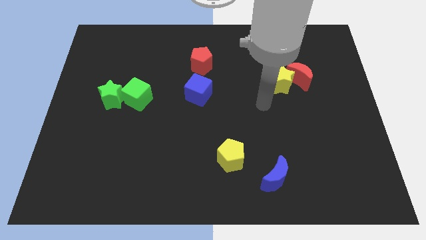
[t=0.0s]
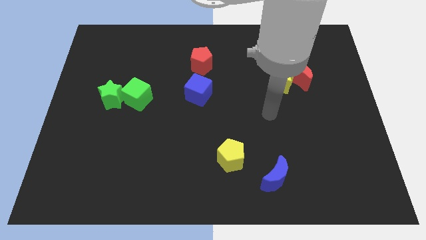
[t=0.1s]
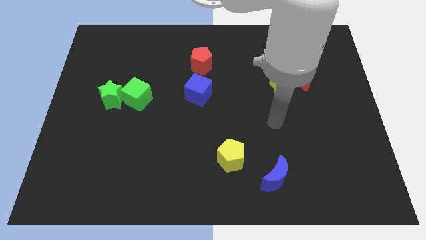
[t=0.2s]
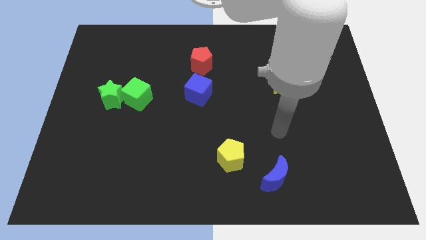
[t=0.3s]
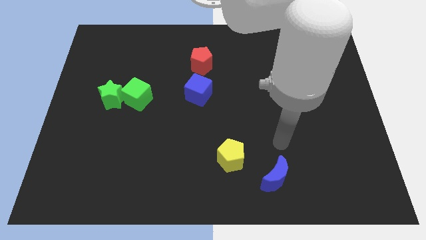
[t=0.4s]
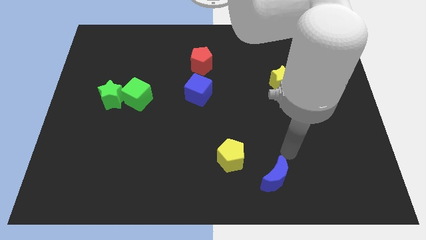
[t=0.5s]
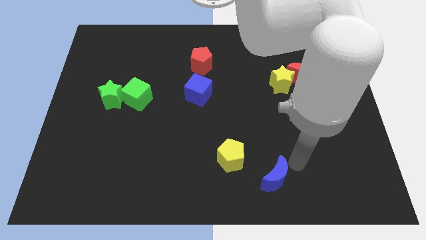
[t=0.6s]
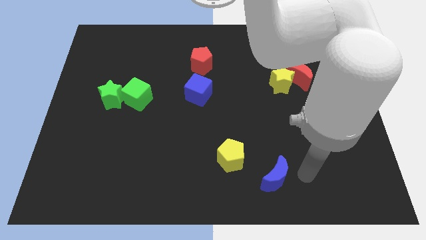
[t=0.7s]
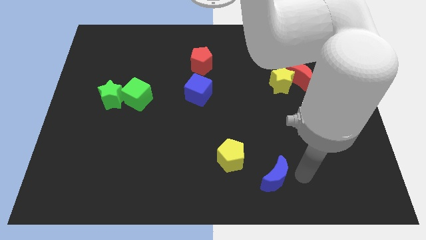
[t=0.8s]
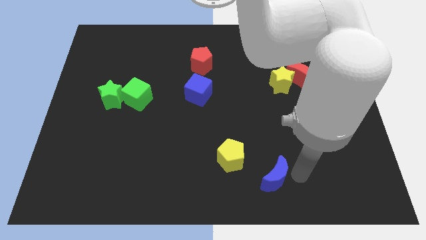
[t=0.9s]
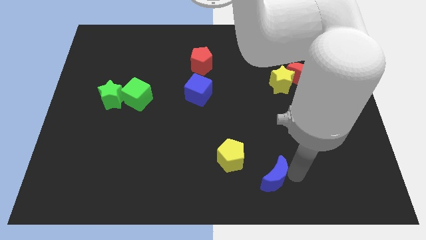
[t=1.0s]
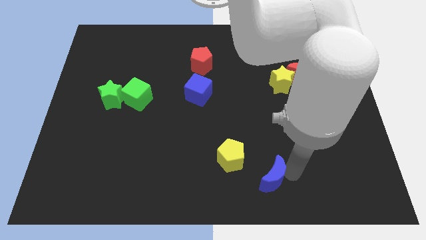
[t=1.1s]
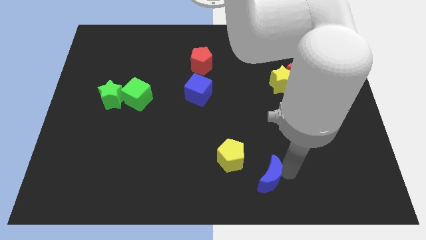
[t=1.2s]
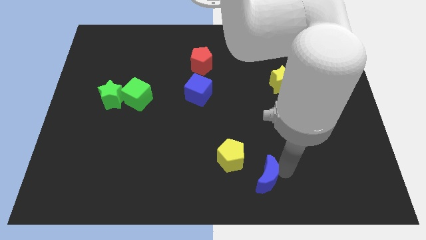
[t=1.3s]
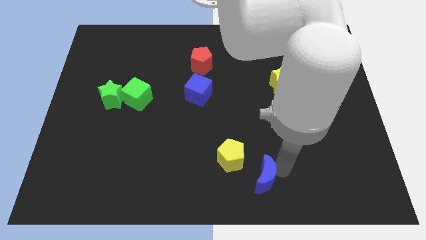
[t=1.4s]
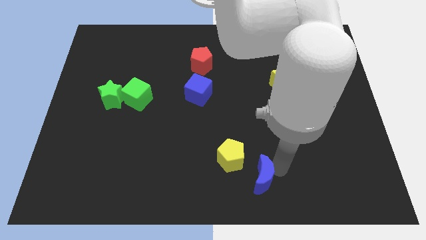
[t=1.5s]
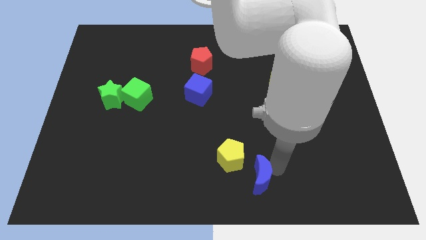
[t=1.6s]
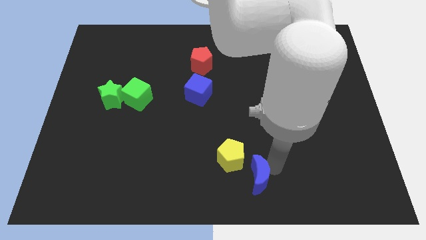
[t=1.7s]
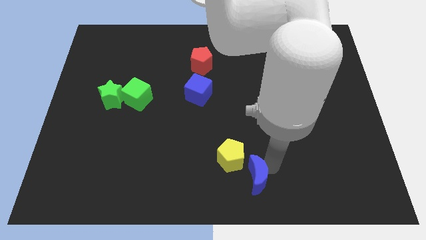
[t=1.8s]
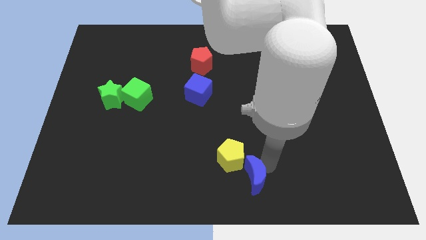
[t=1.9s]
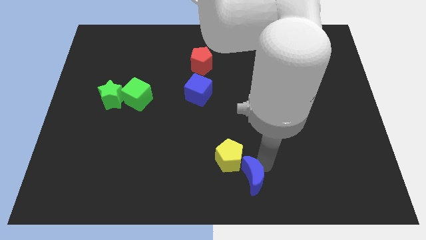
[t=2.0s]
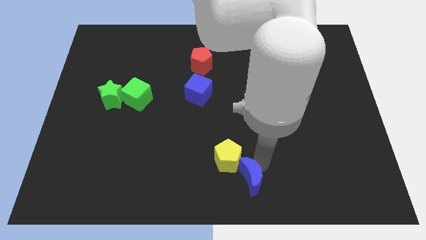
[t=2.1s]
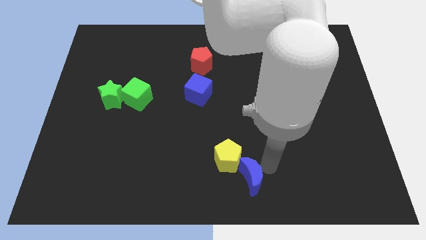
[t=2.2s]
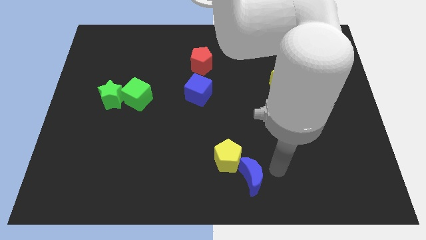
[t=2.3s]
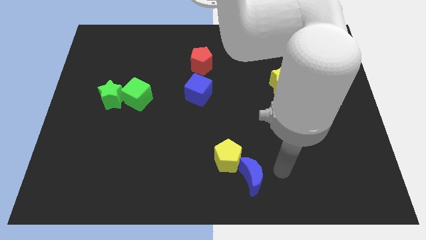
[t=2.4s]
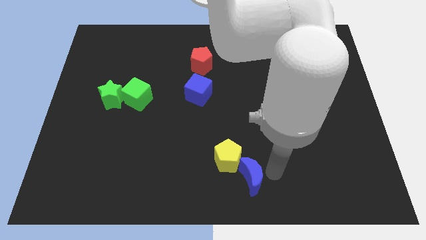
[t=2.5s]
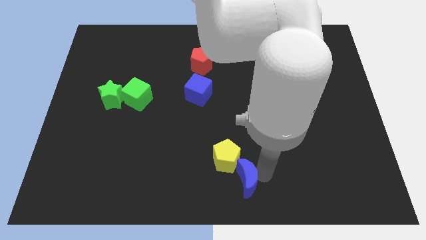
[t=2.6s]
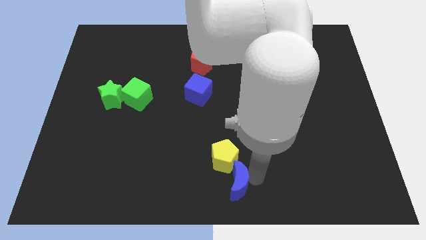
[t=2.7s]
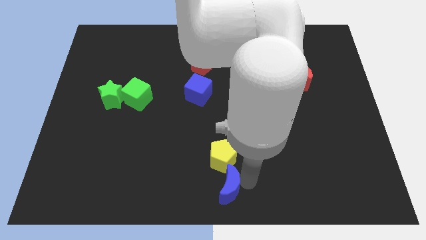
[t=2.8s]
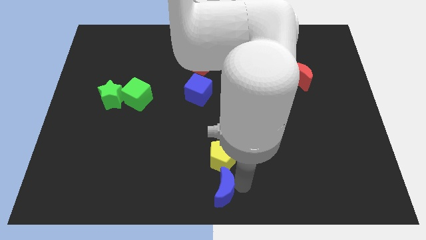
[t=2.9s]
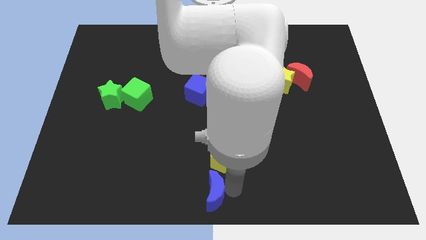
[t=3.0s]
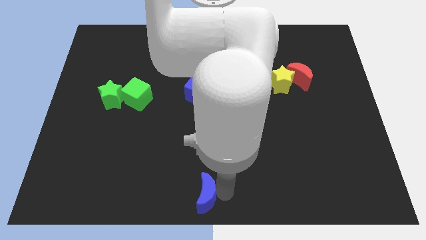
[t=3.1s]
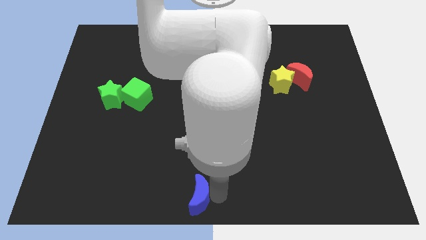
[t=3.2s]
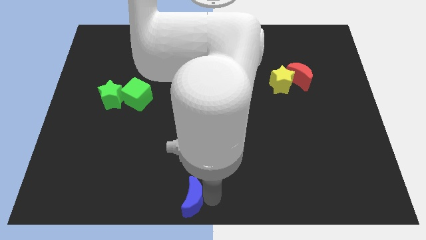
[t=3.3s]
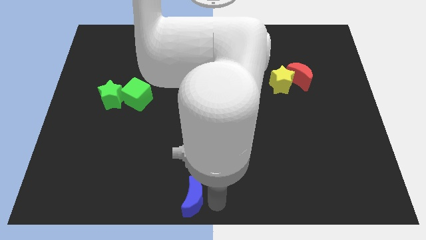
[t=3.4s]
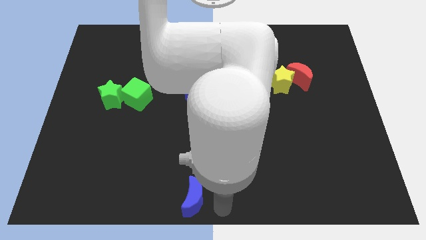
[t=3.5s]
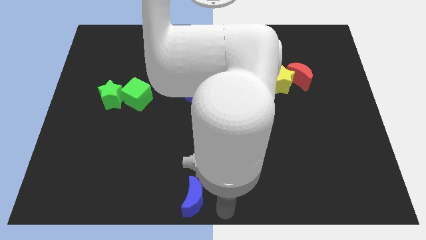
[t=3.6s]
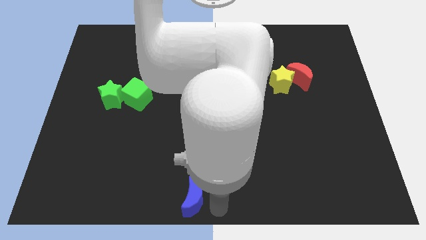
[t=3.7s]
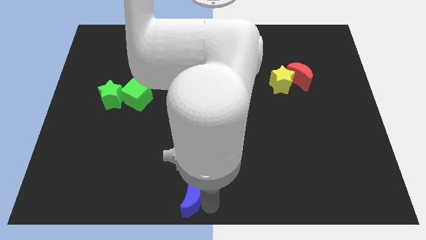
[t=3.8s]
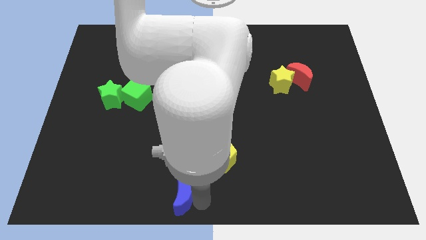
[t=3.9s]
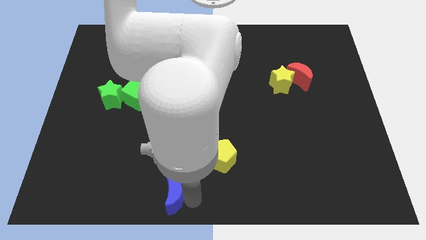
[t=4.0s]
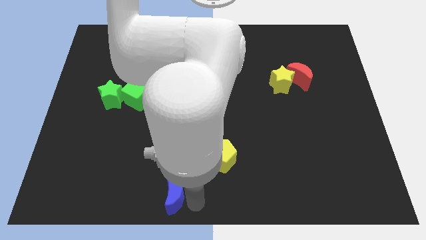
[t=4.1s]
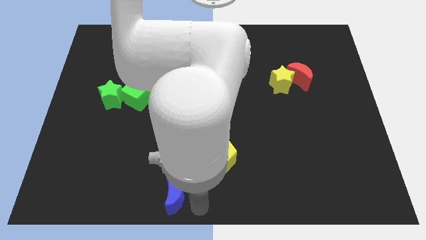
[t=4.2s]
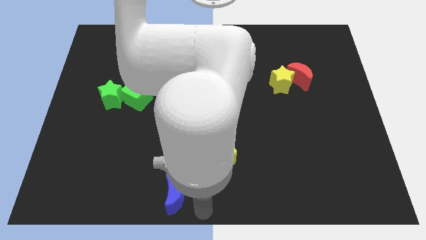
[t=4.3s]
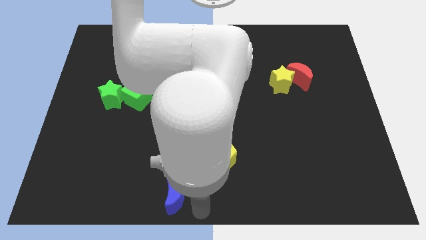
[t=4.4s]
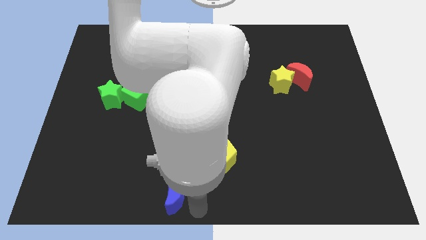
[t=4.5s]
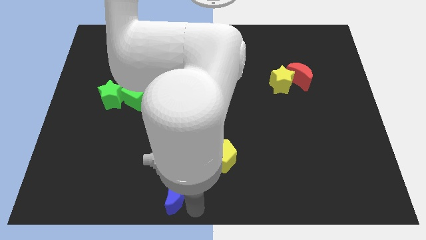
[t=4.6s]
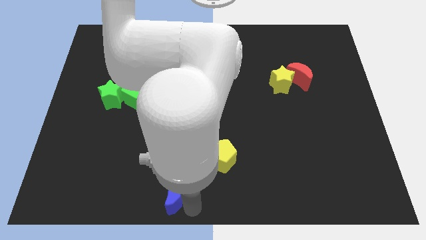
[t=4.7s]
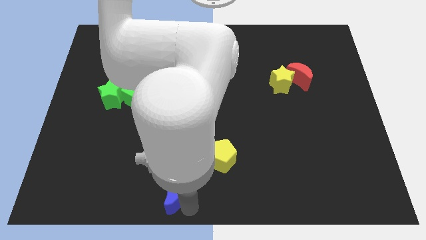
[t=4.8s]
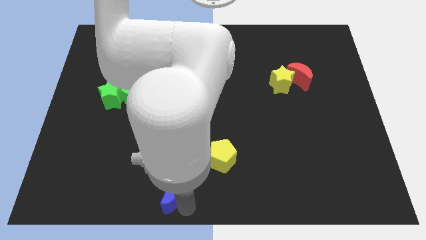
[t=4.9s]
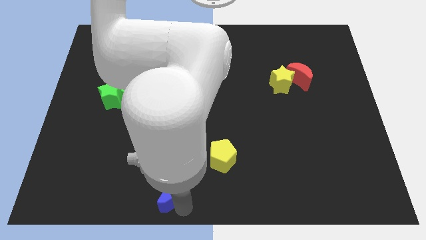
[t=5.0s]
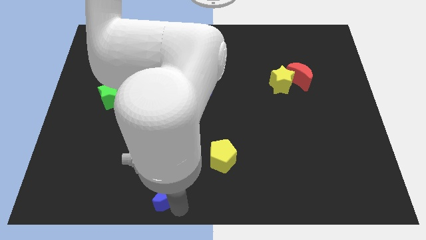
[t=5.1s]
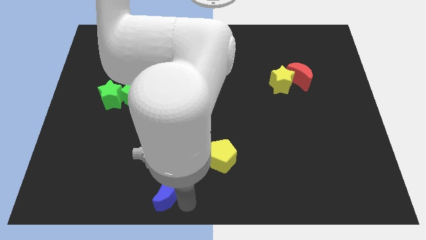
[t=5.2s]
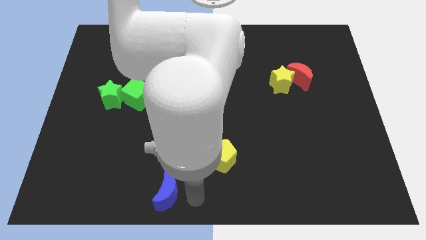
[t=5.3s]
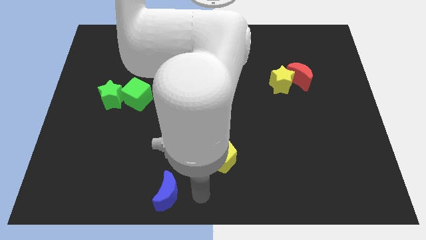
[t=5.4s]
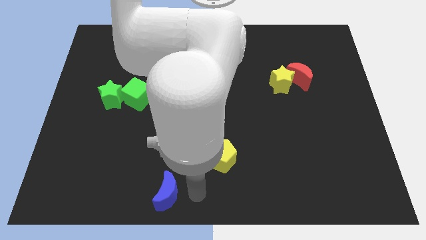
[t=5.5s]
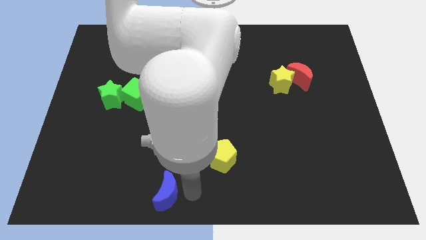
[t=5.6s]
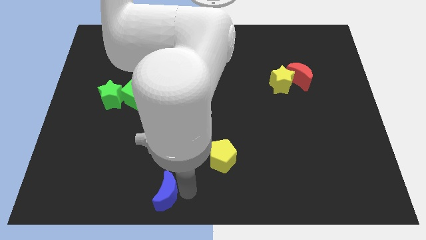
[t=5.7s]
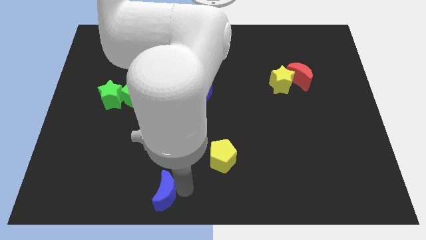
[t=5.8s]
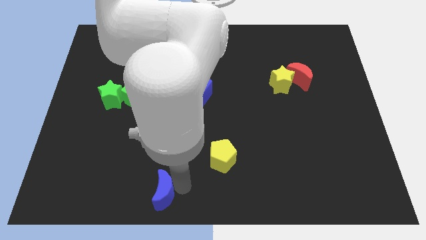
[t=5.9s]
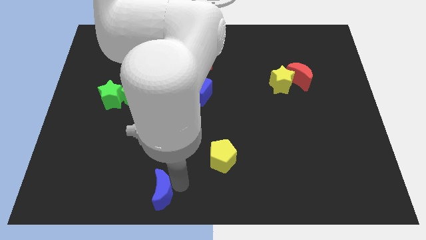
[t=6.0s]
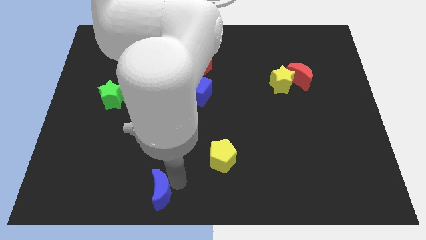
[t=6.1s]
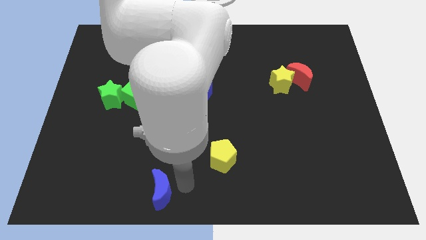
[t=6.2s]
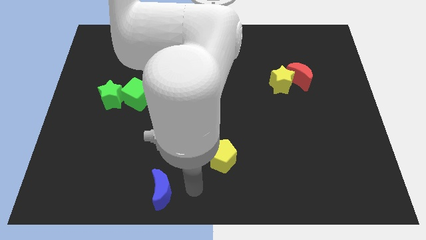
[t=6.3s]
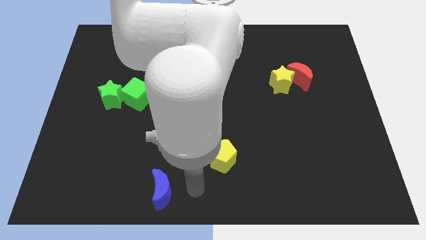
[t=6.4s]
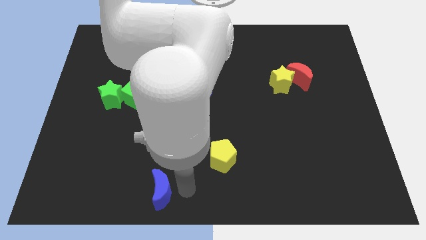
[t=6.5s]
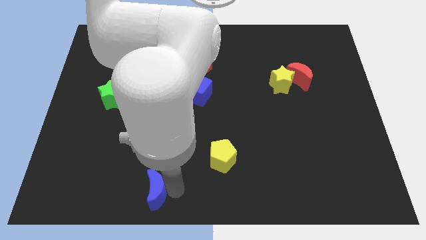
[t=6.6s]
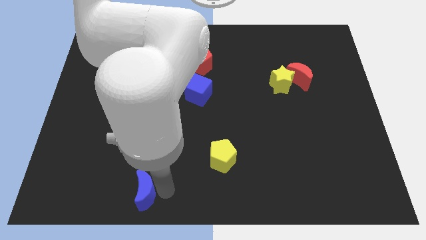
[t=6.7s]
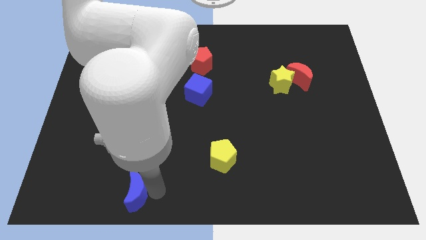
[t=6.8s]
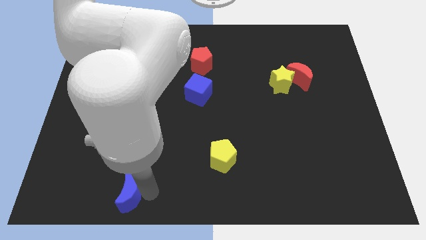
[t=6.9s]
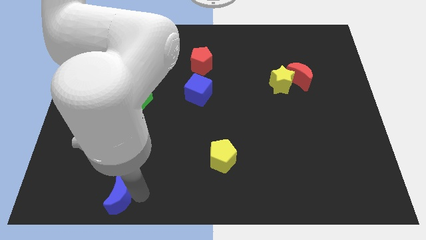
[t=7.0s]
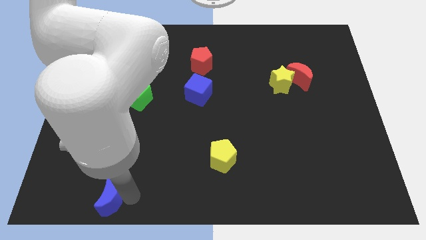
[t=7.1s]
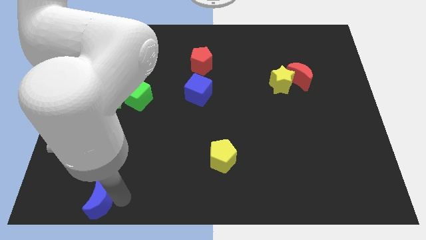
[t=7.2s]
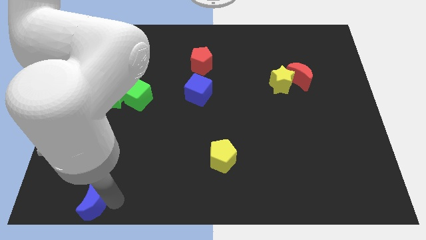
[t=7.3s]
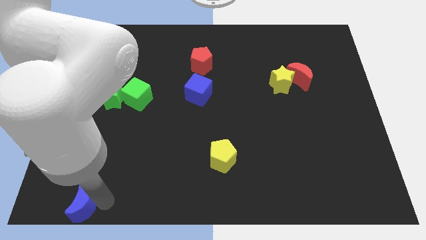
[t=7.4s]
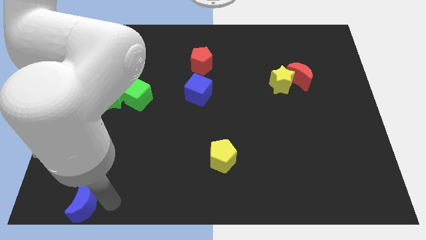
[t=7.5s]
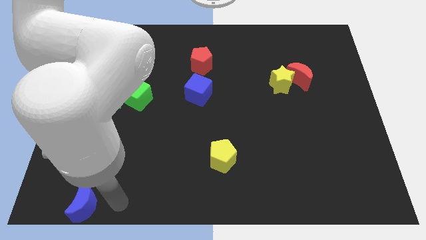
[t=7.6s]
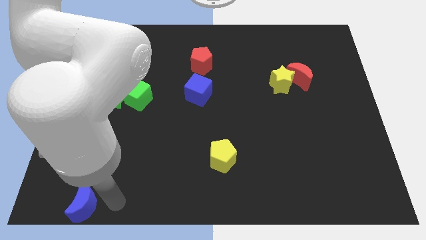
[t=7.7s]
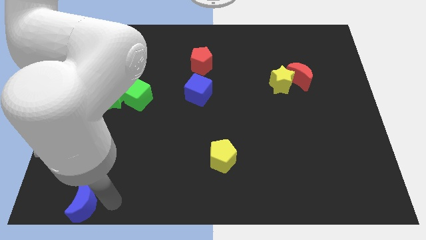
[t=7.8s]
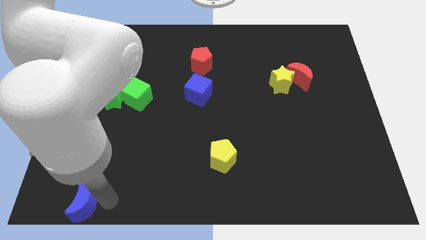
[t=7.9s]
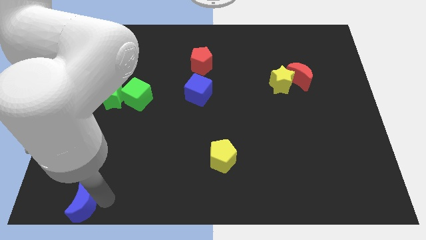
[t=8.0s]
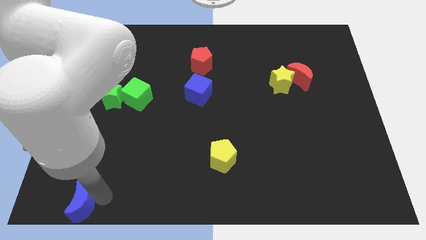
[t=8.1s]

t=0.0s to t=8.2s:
slide the blue moon to the lower left corner
